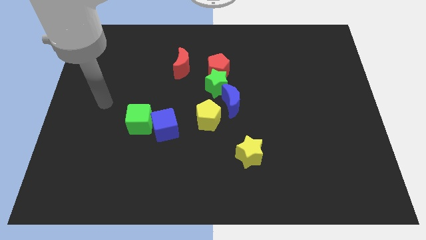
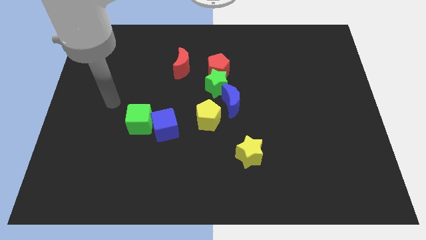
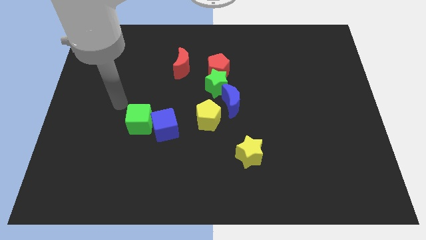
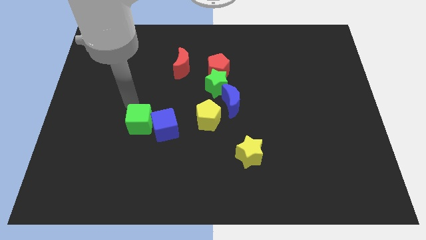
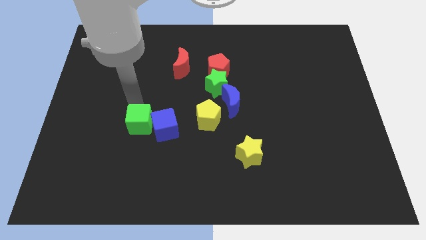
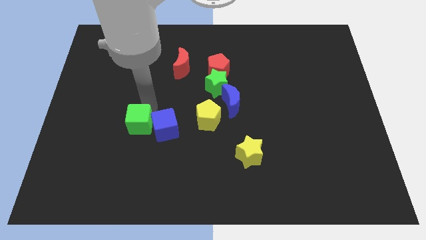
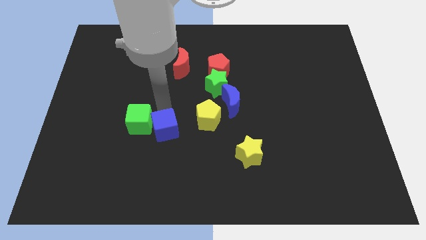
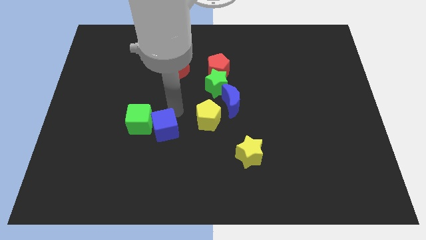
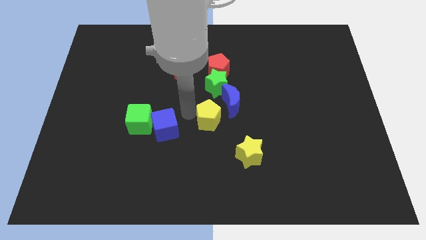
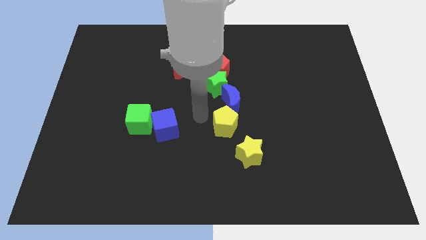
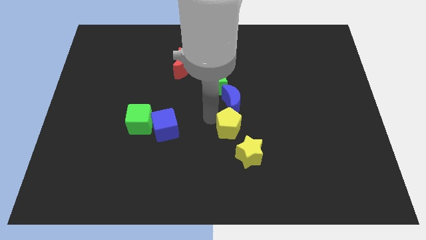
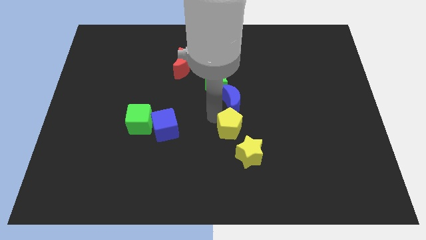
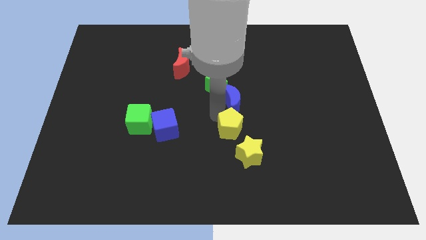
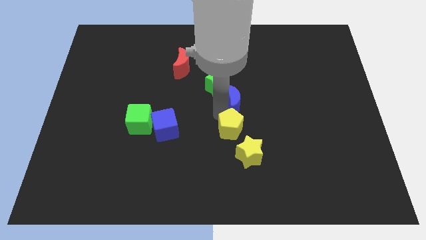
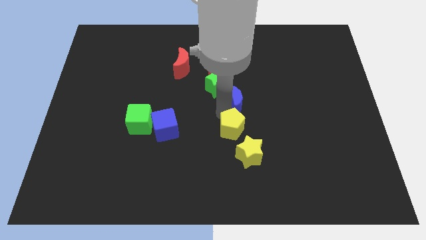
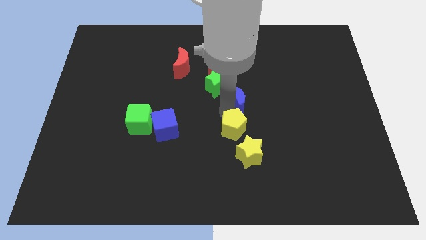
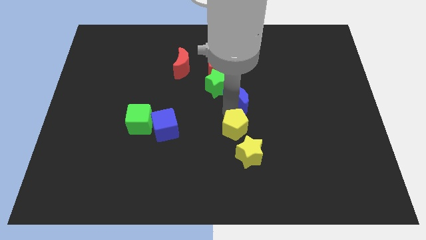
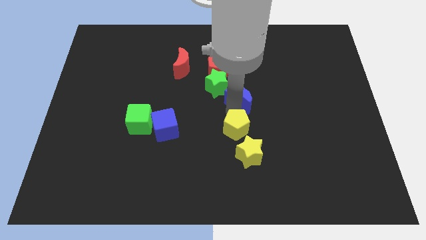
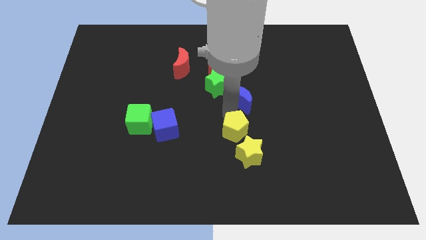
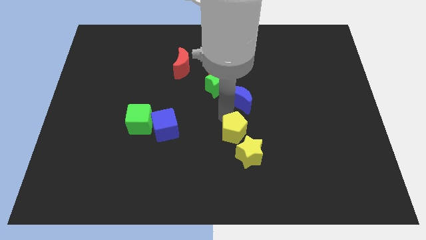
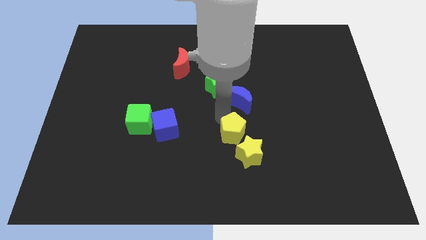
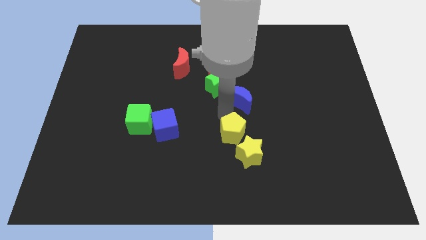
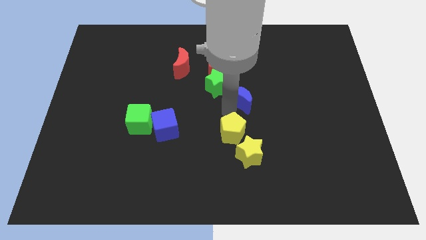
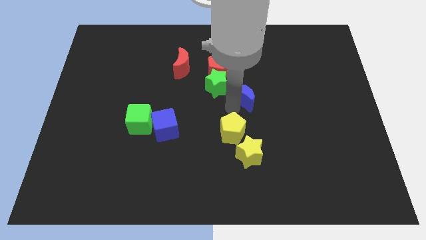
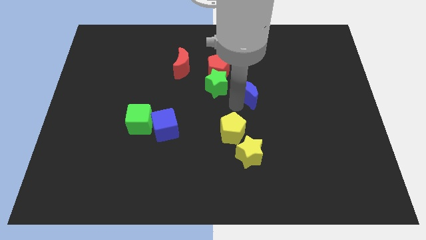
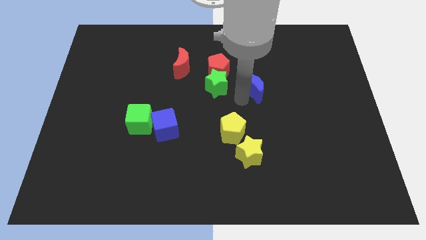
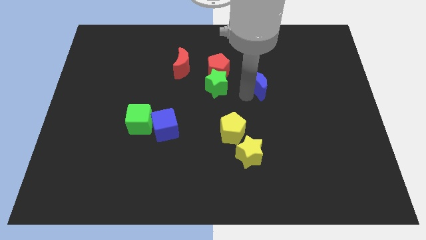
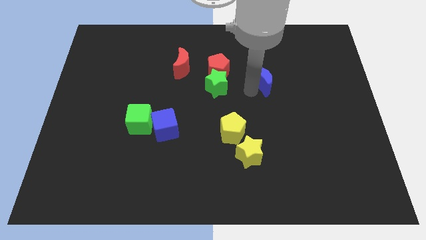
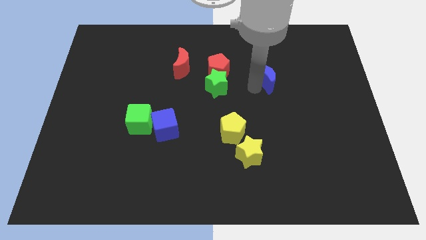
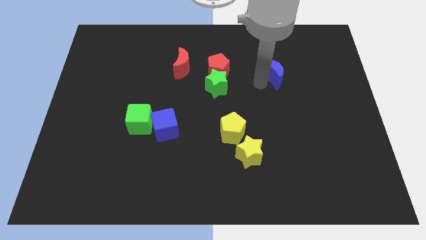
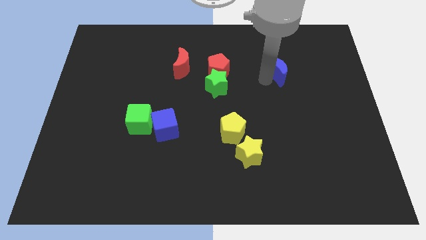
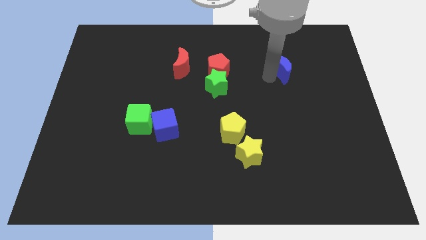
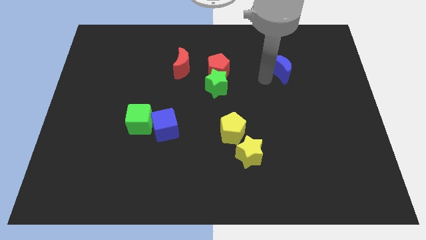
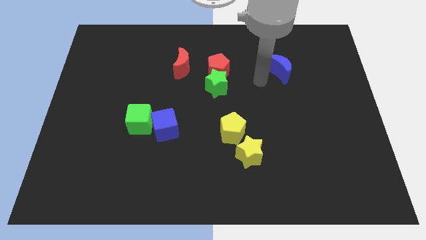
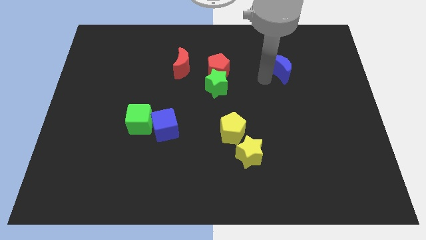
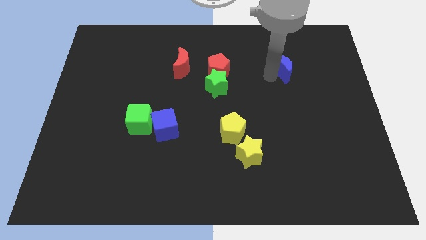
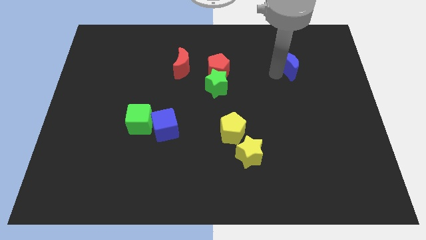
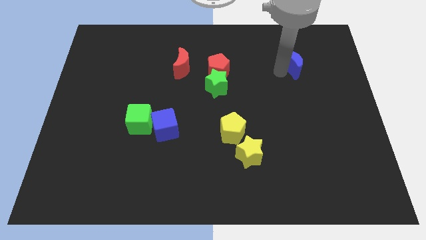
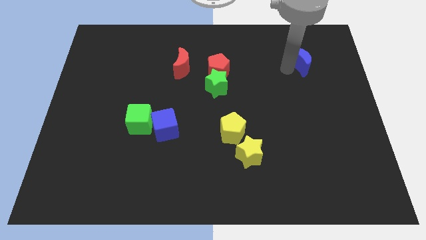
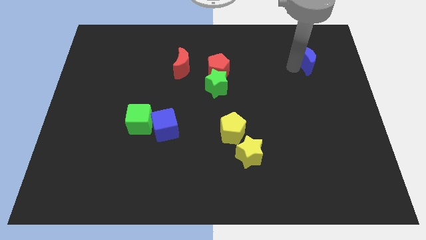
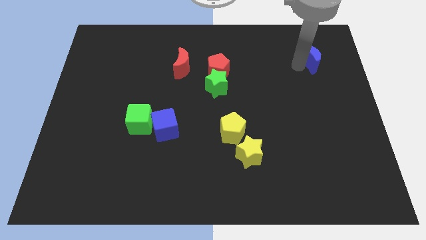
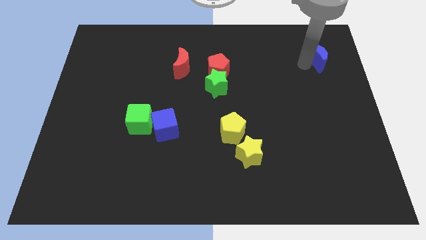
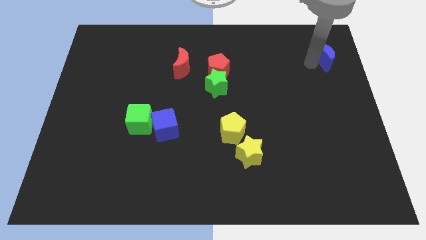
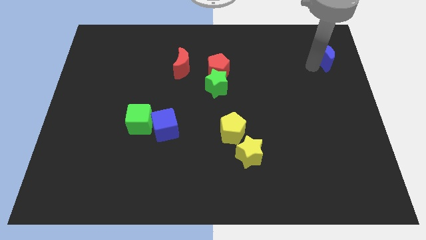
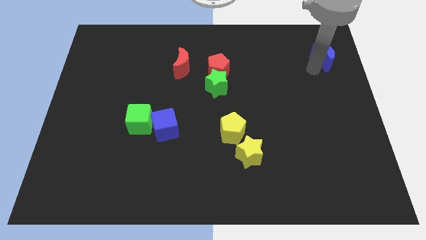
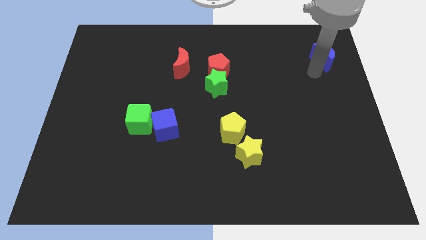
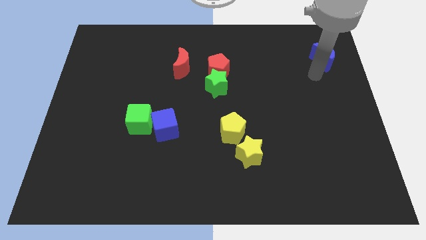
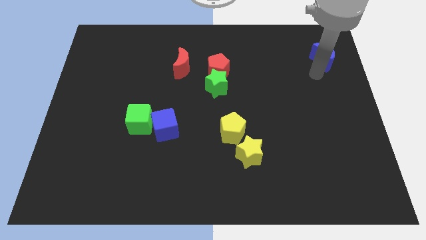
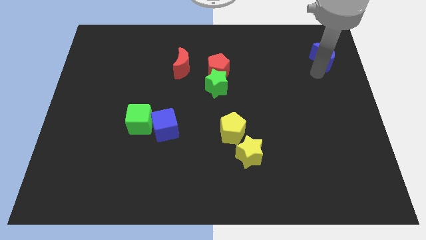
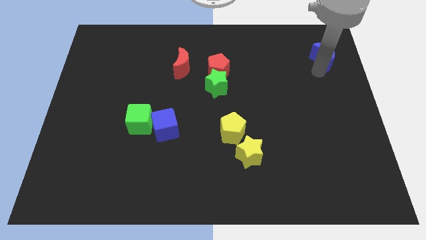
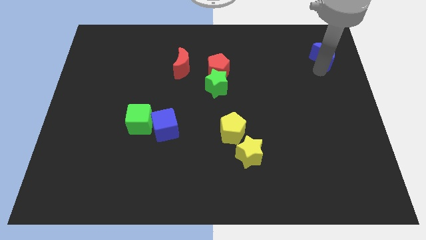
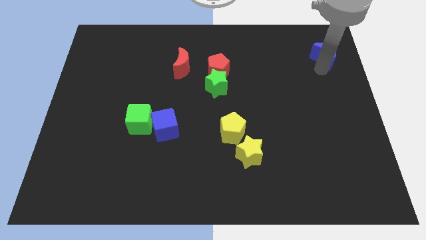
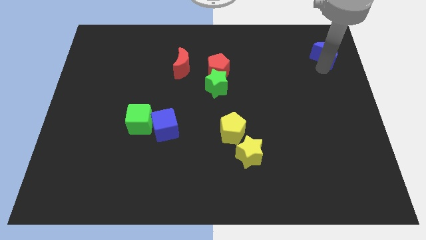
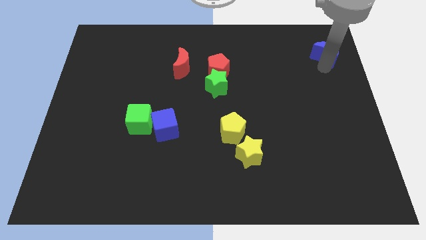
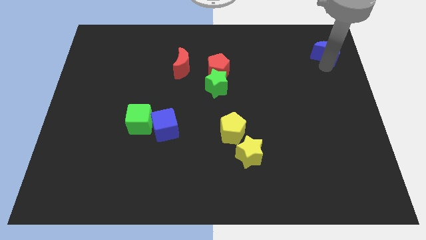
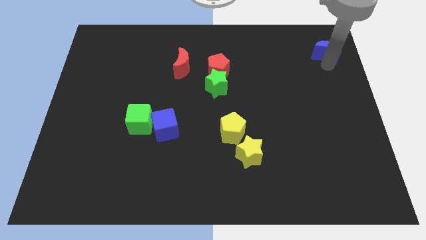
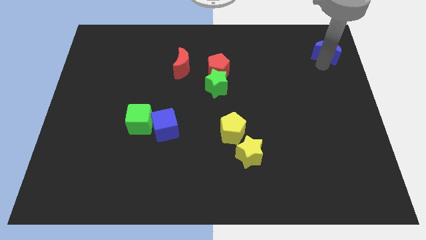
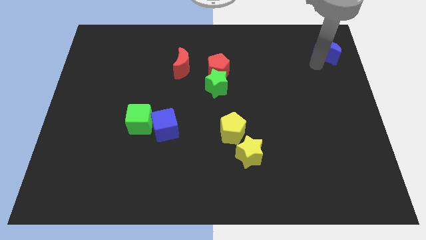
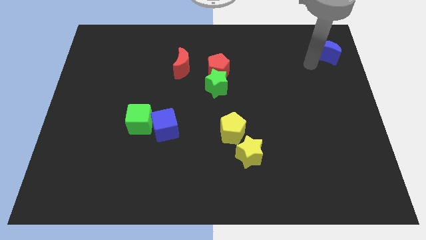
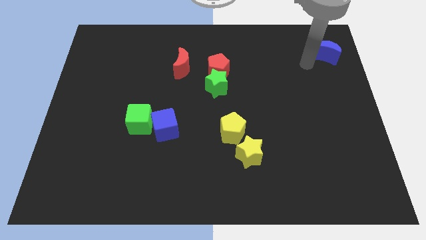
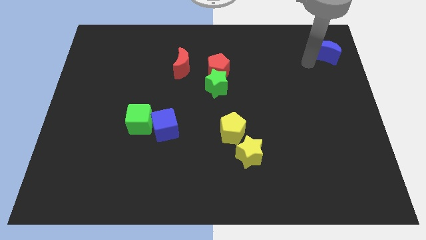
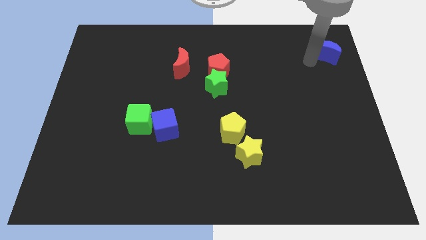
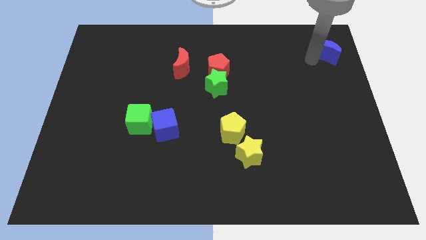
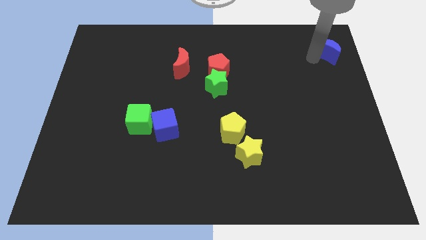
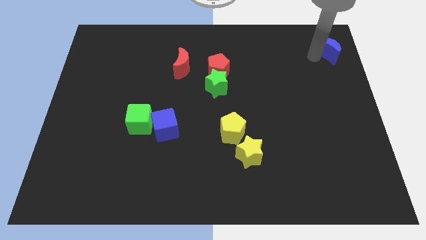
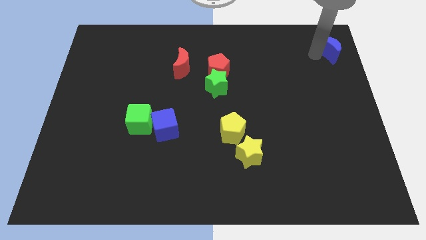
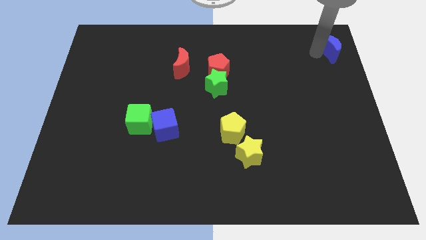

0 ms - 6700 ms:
move the blue moon to the top right corner
